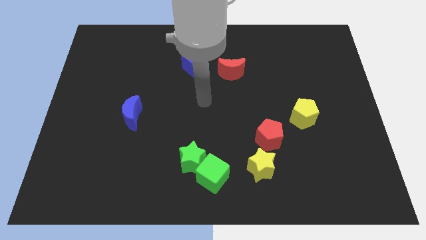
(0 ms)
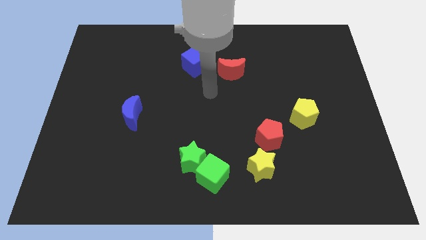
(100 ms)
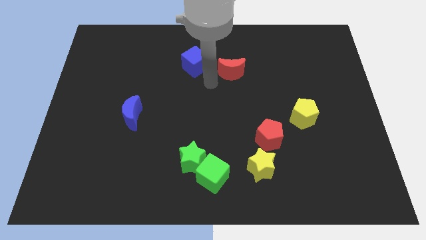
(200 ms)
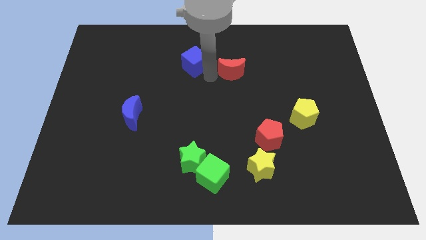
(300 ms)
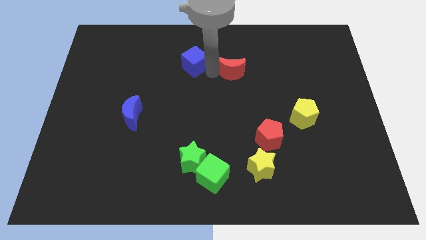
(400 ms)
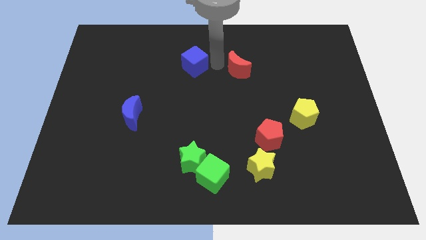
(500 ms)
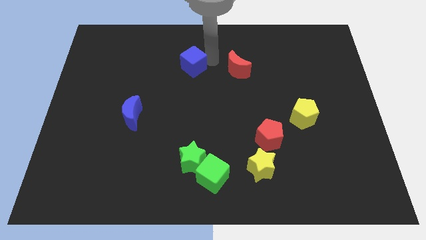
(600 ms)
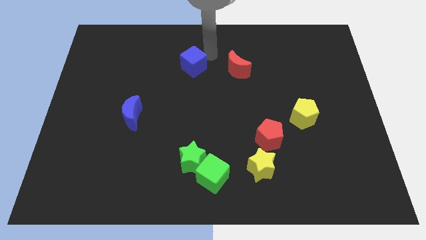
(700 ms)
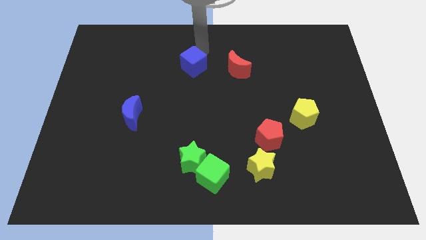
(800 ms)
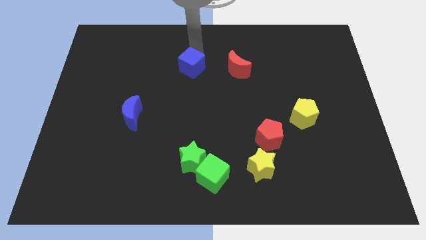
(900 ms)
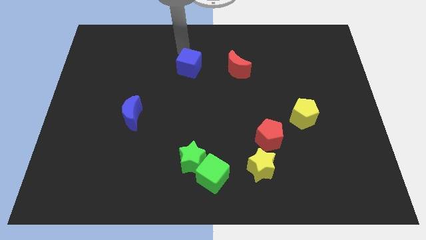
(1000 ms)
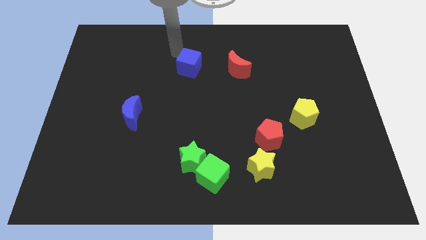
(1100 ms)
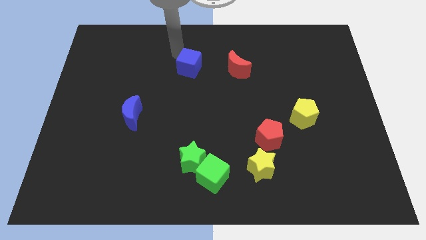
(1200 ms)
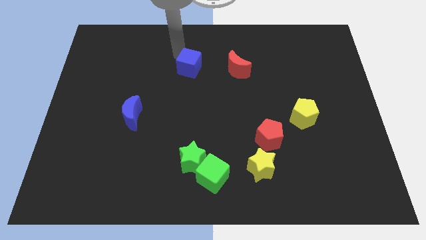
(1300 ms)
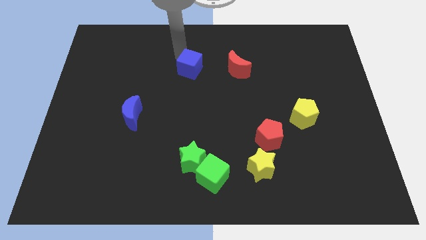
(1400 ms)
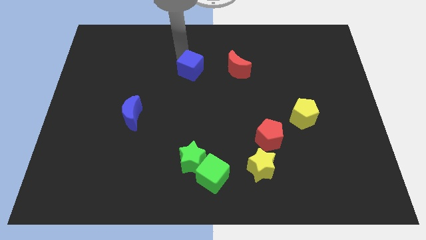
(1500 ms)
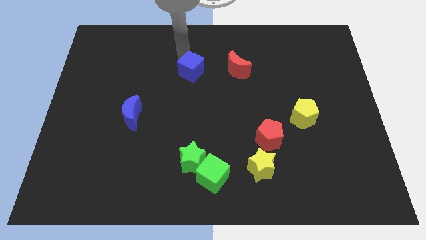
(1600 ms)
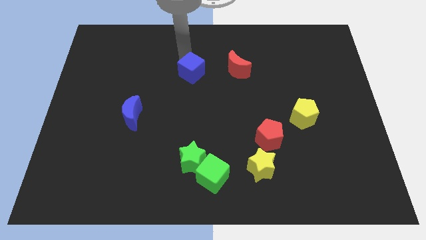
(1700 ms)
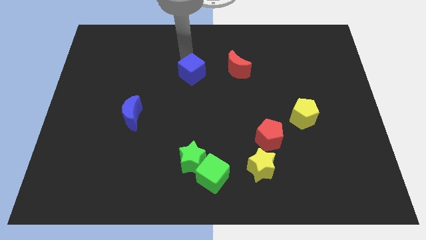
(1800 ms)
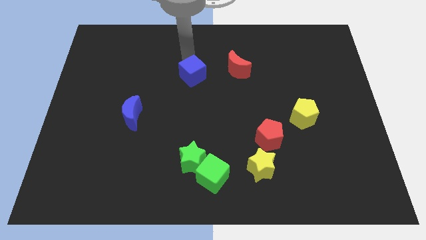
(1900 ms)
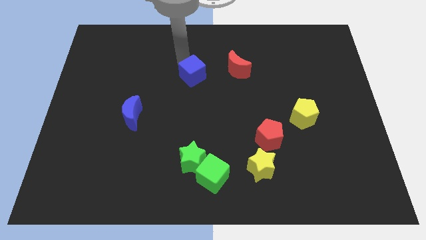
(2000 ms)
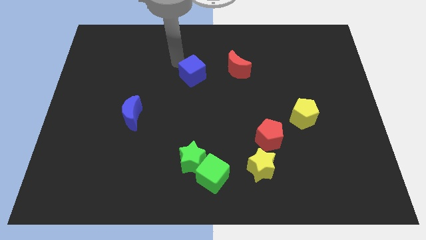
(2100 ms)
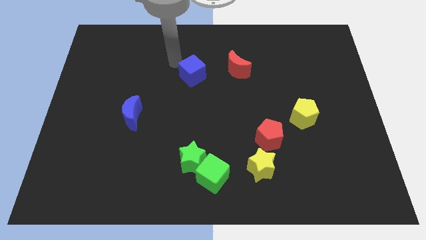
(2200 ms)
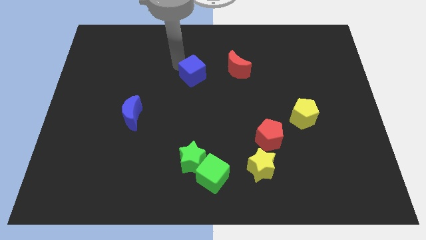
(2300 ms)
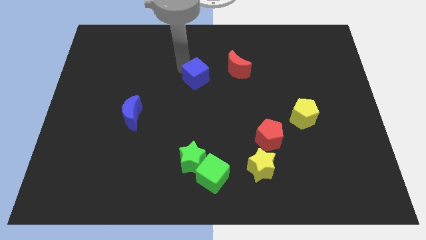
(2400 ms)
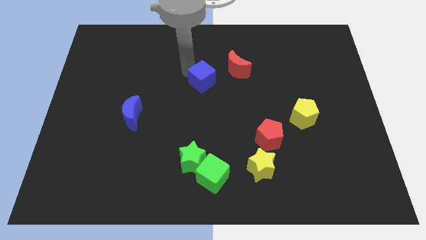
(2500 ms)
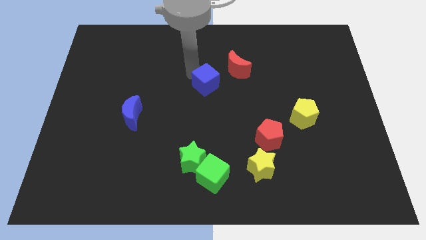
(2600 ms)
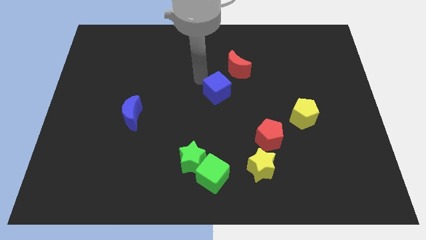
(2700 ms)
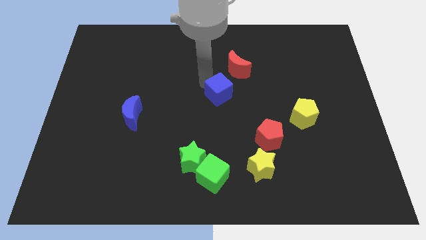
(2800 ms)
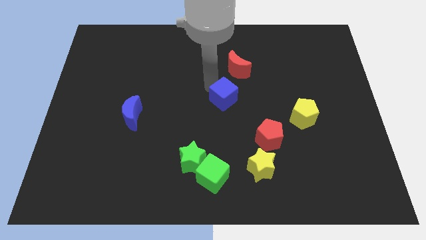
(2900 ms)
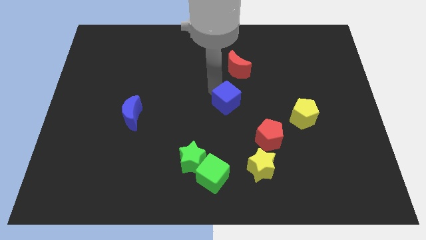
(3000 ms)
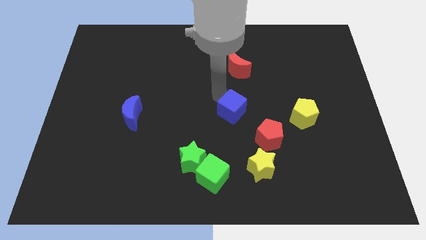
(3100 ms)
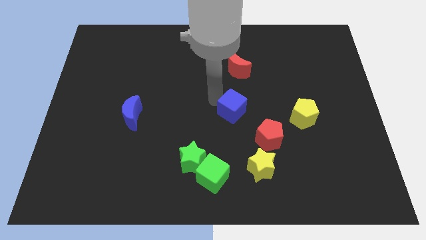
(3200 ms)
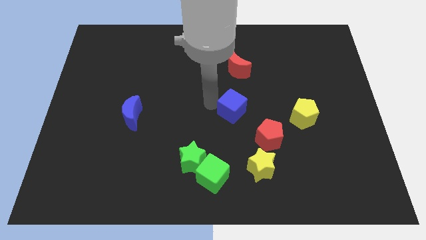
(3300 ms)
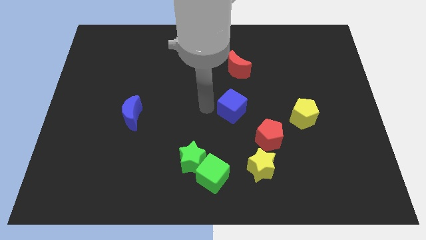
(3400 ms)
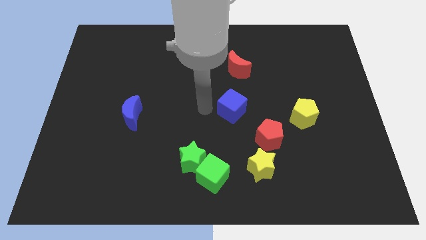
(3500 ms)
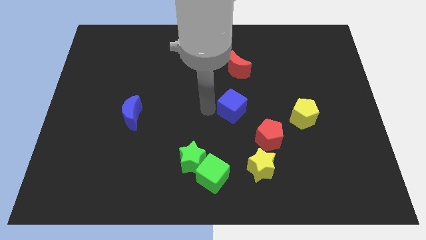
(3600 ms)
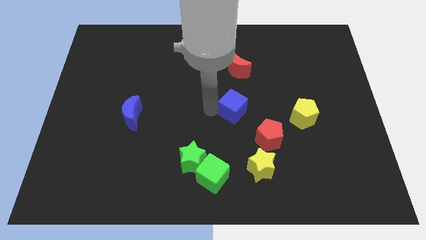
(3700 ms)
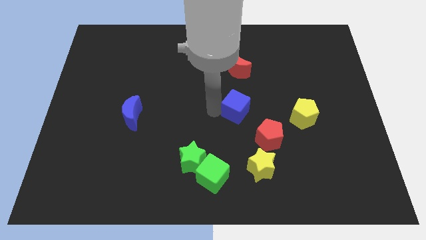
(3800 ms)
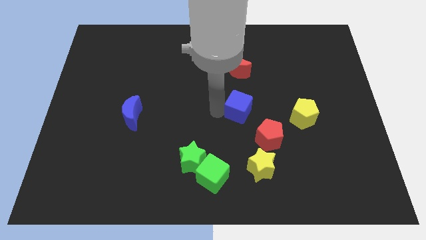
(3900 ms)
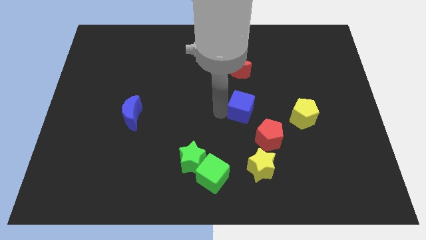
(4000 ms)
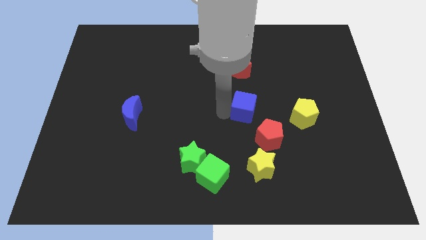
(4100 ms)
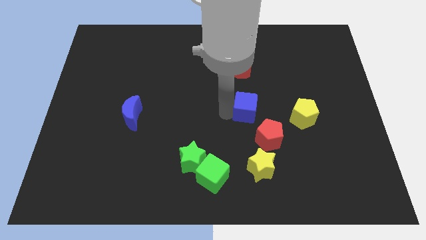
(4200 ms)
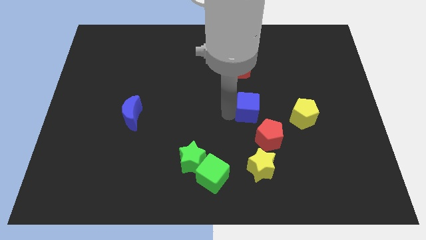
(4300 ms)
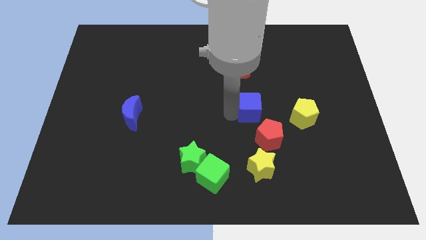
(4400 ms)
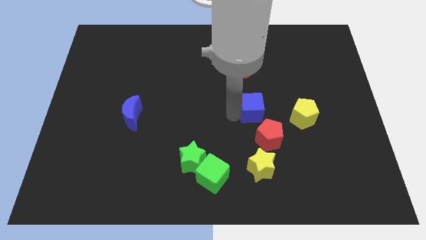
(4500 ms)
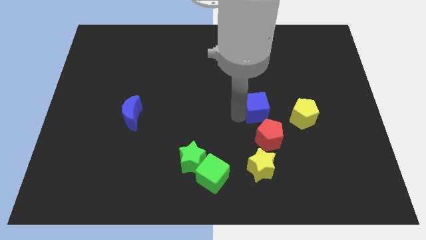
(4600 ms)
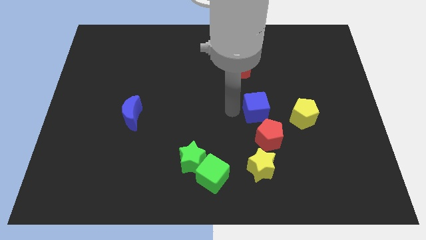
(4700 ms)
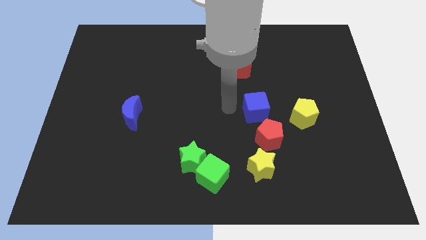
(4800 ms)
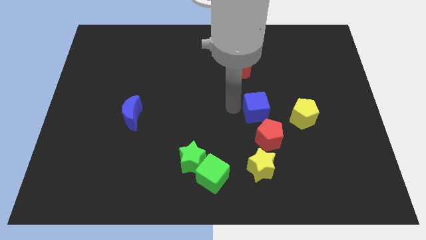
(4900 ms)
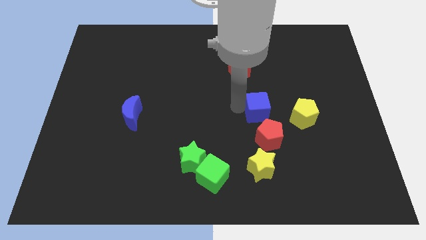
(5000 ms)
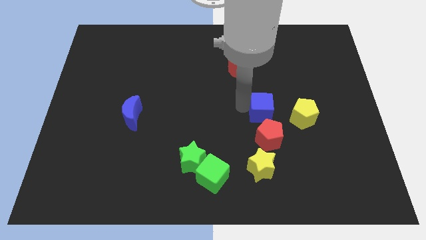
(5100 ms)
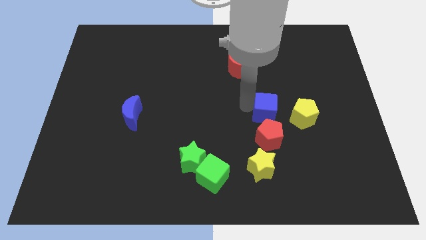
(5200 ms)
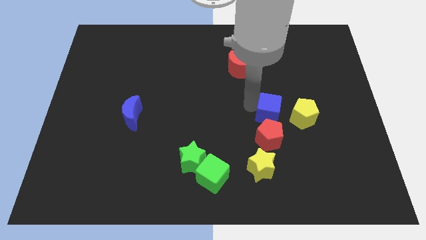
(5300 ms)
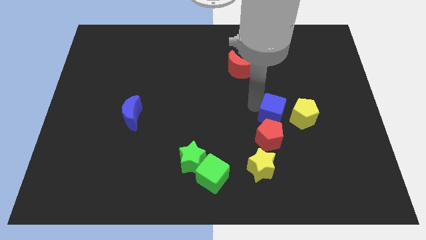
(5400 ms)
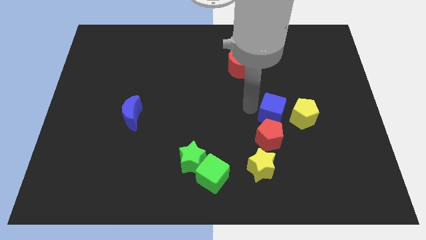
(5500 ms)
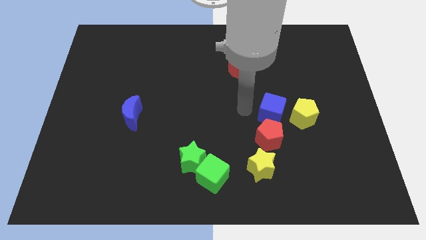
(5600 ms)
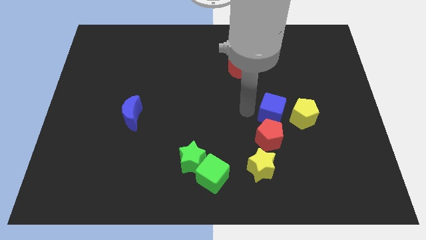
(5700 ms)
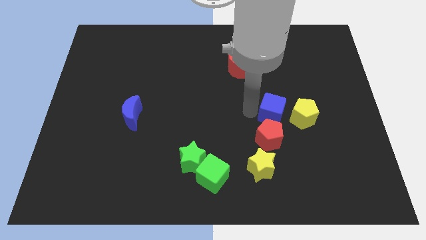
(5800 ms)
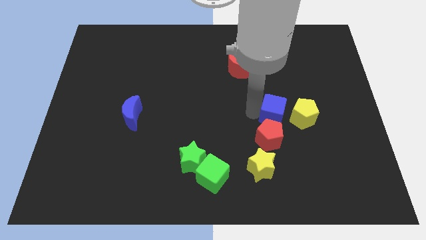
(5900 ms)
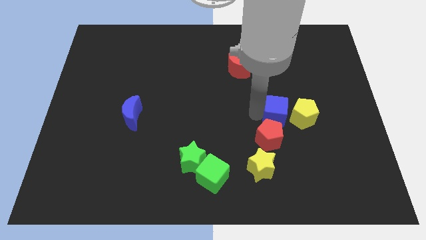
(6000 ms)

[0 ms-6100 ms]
push the blue cube towards the yellow pentagon
